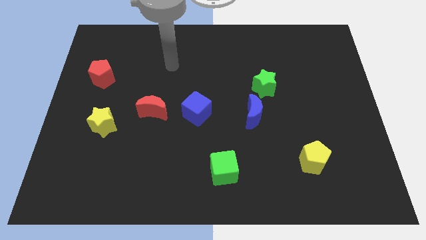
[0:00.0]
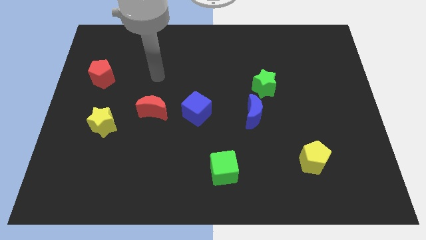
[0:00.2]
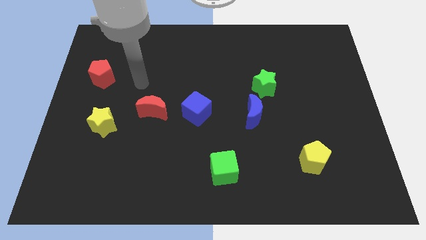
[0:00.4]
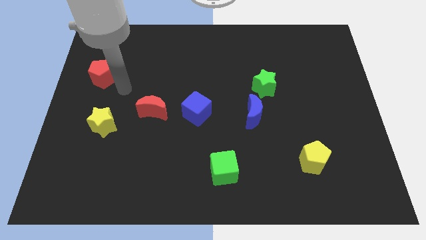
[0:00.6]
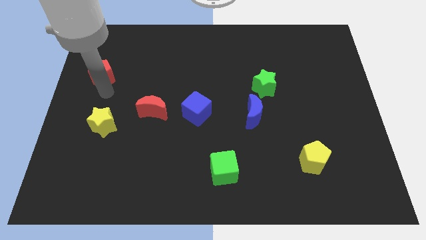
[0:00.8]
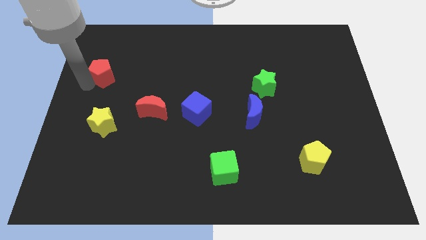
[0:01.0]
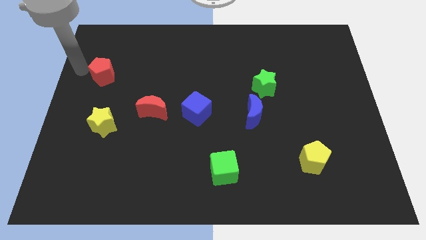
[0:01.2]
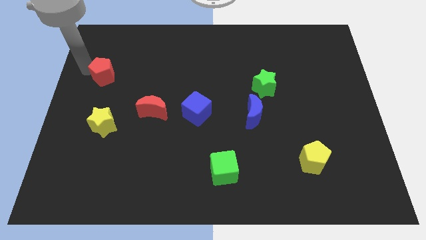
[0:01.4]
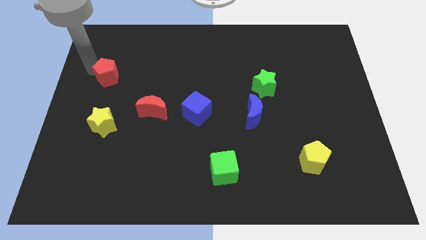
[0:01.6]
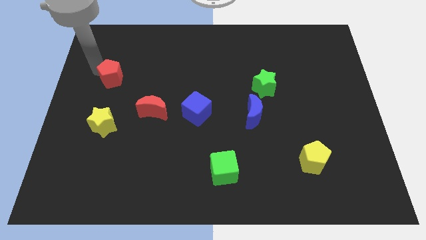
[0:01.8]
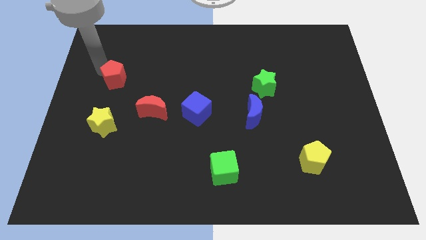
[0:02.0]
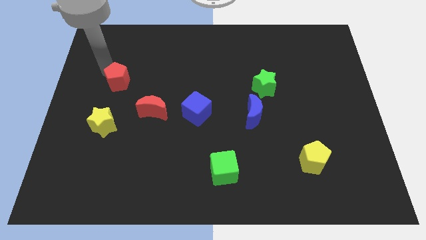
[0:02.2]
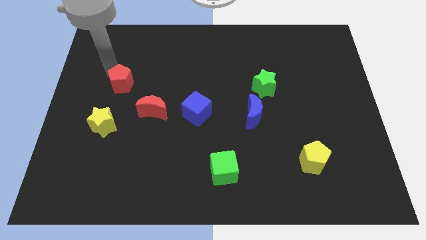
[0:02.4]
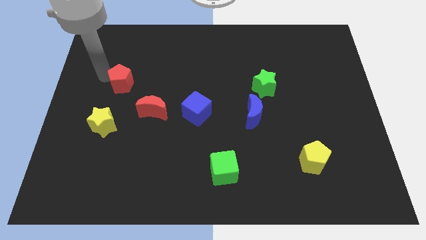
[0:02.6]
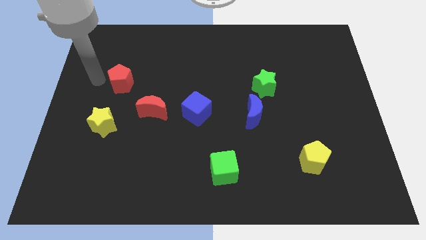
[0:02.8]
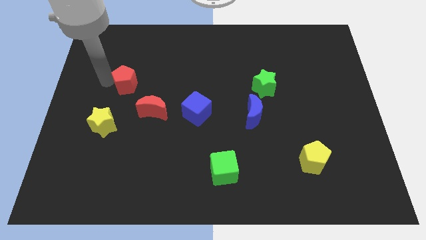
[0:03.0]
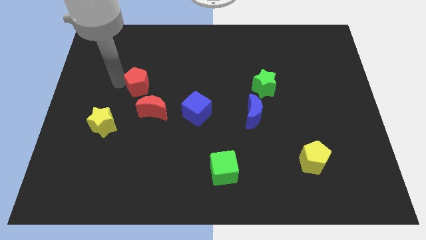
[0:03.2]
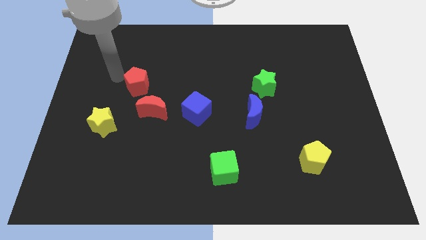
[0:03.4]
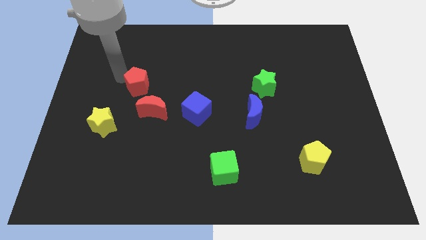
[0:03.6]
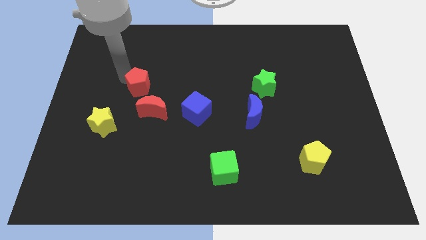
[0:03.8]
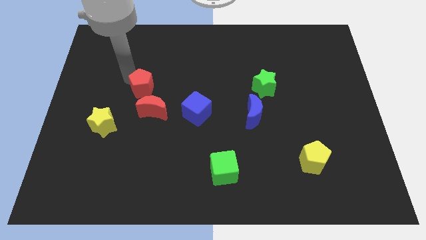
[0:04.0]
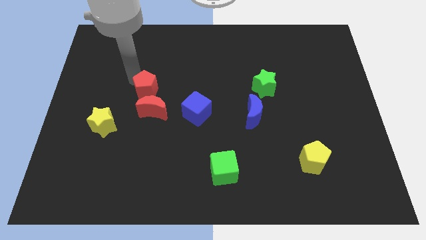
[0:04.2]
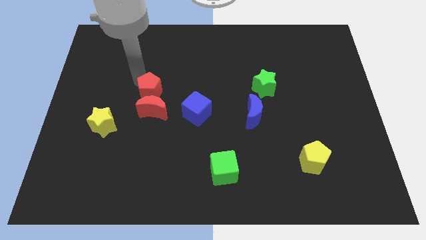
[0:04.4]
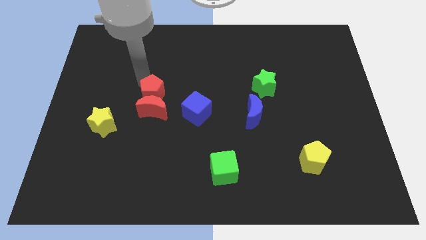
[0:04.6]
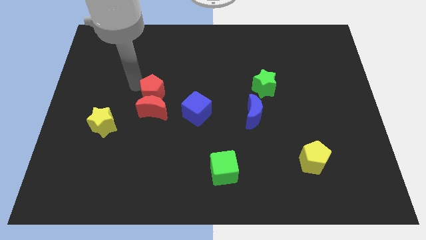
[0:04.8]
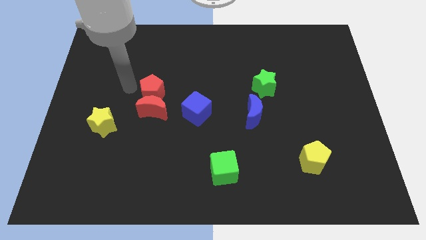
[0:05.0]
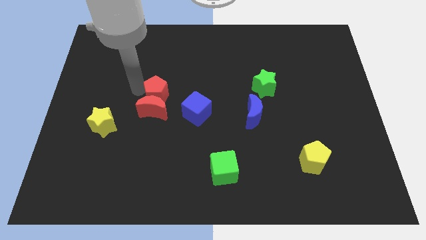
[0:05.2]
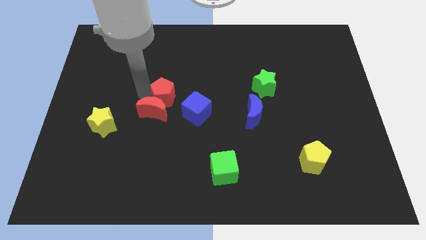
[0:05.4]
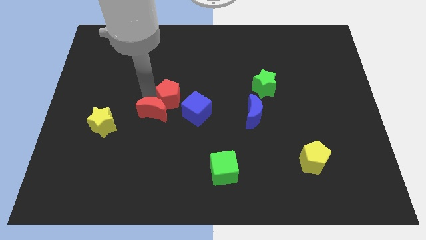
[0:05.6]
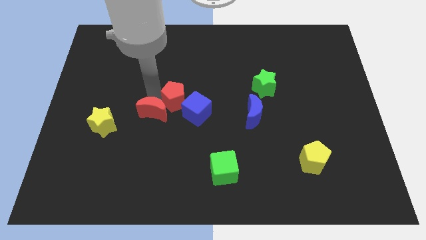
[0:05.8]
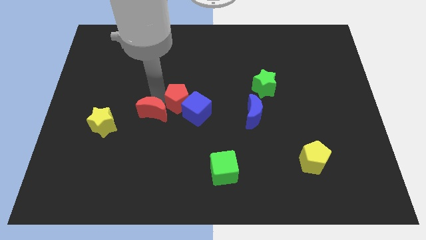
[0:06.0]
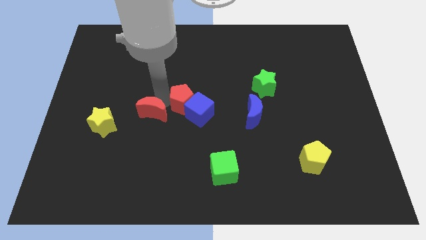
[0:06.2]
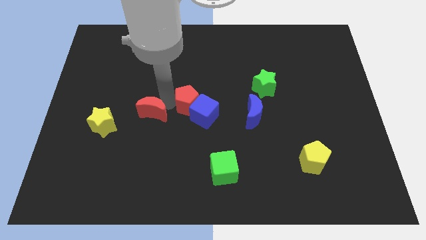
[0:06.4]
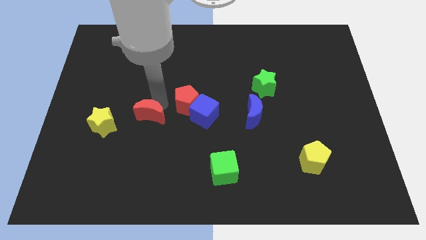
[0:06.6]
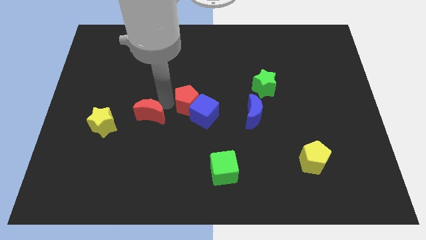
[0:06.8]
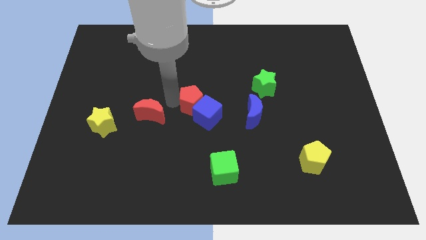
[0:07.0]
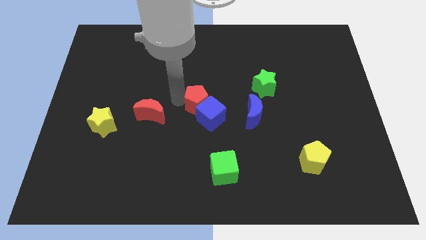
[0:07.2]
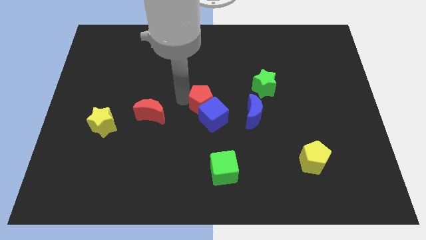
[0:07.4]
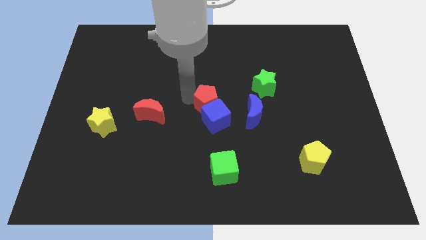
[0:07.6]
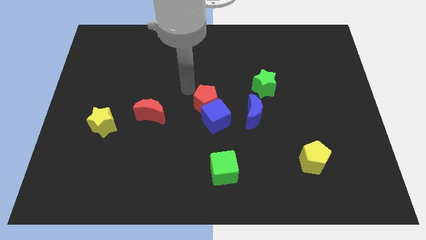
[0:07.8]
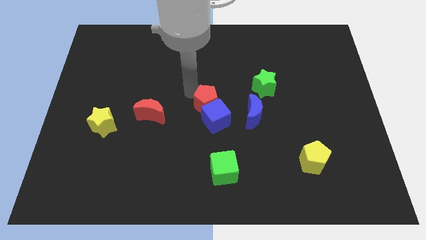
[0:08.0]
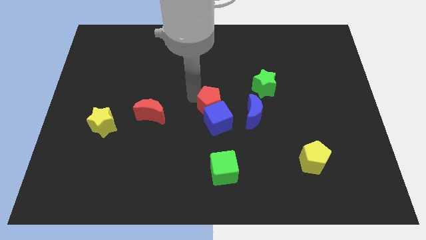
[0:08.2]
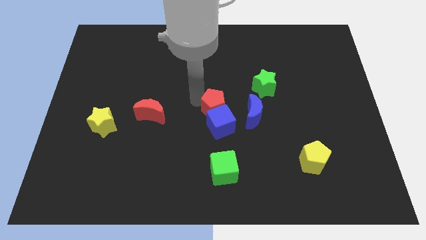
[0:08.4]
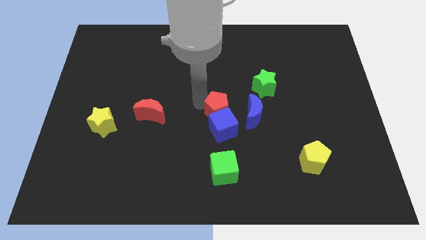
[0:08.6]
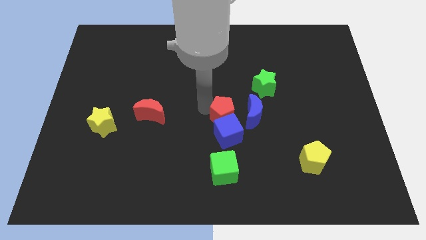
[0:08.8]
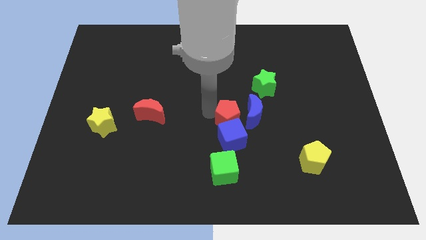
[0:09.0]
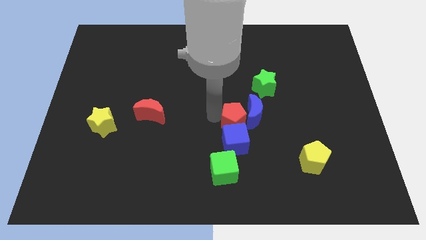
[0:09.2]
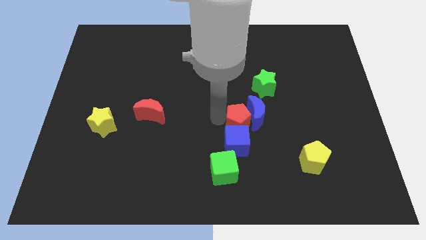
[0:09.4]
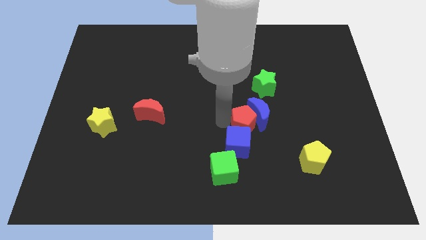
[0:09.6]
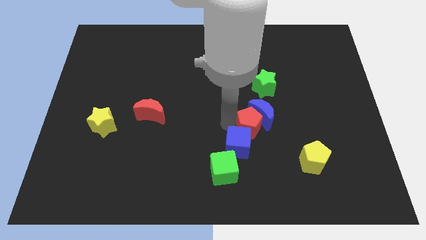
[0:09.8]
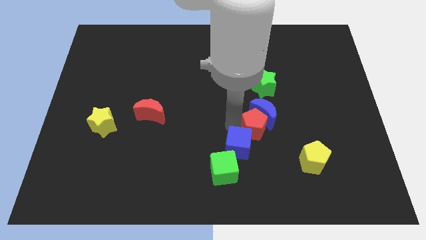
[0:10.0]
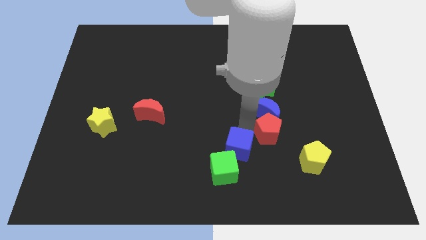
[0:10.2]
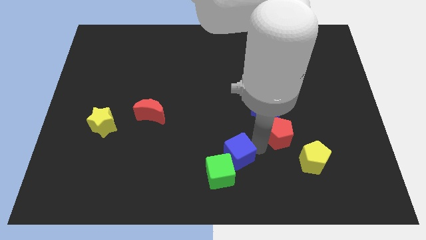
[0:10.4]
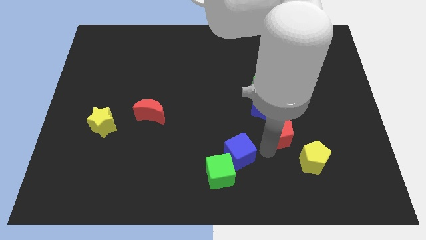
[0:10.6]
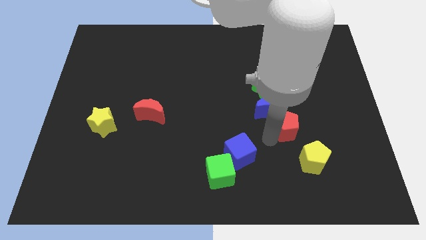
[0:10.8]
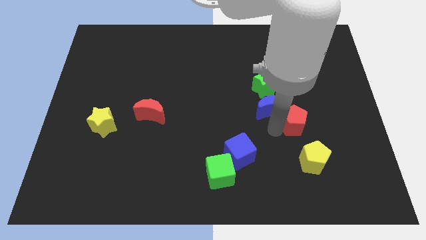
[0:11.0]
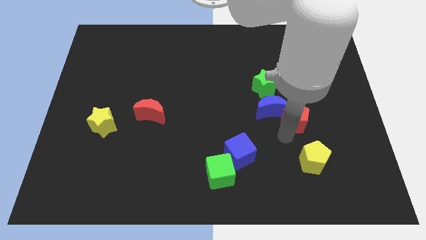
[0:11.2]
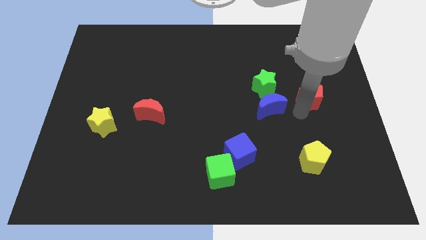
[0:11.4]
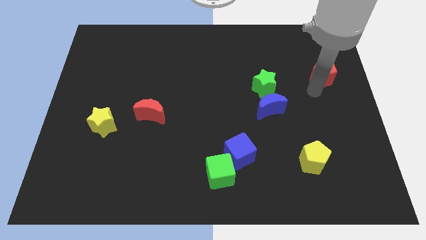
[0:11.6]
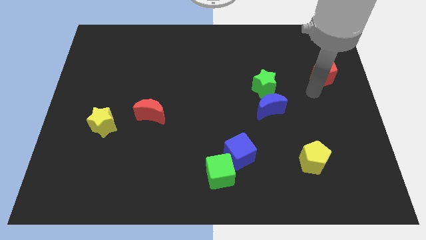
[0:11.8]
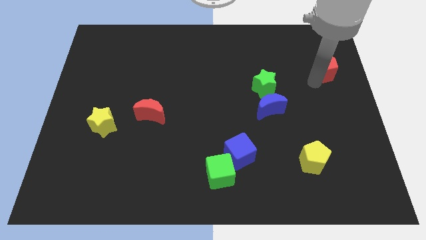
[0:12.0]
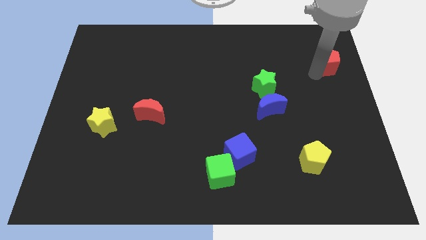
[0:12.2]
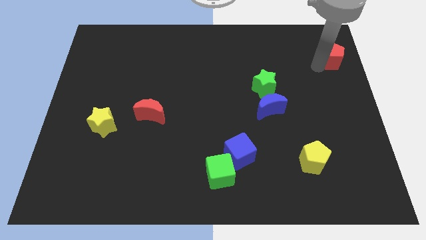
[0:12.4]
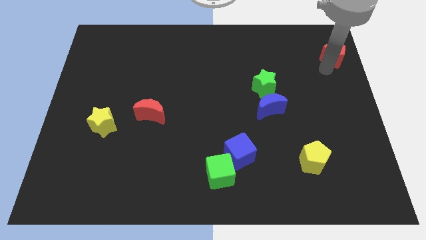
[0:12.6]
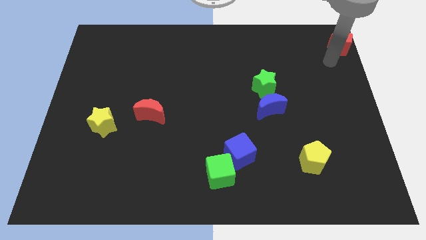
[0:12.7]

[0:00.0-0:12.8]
slide the red pentagon to the upper right corner
